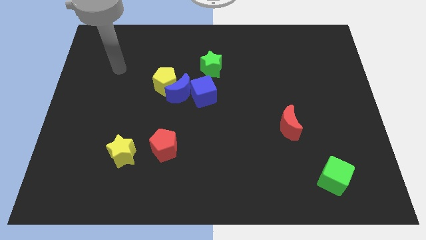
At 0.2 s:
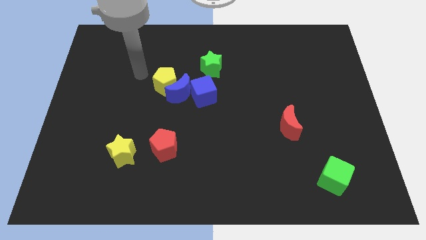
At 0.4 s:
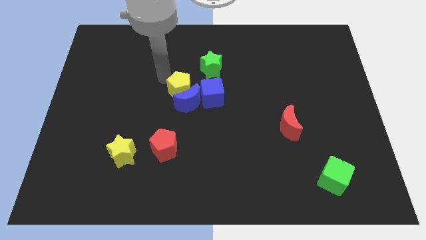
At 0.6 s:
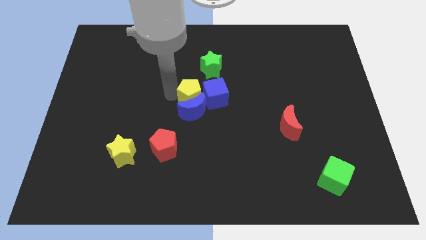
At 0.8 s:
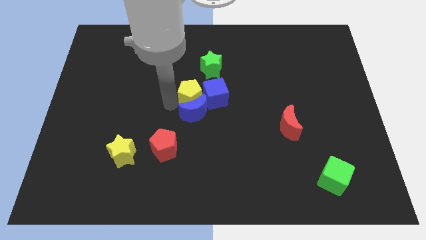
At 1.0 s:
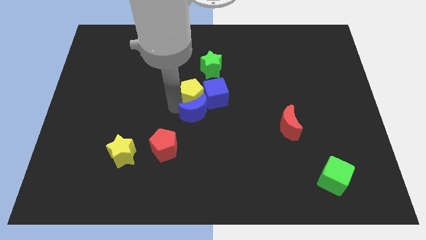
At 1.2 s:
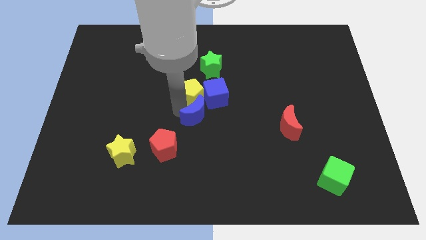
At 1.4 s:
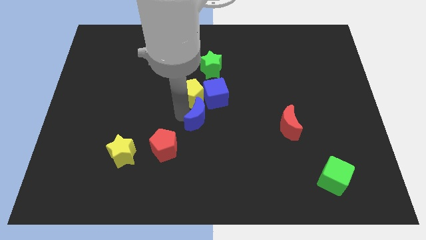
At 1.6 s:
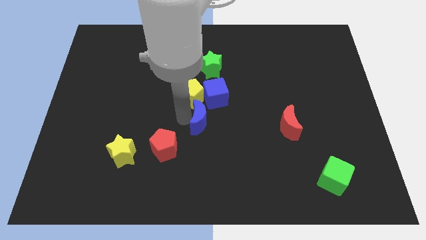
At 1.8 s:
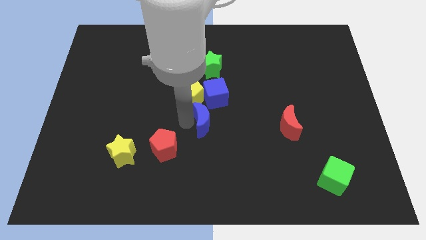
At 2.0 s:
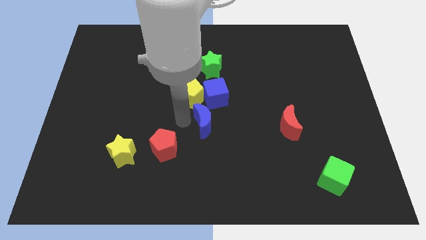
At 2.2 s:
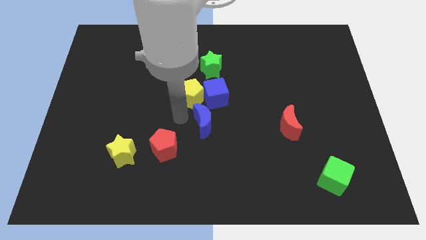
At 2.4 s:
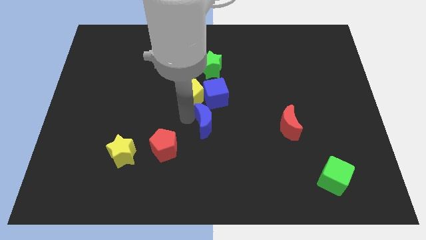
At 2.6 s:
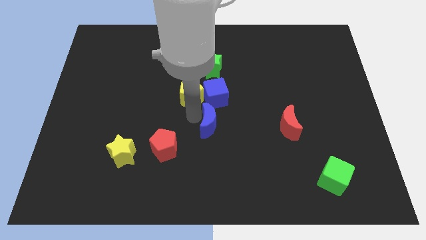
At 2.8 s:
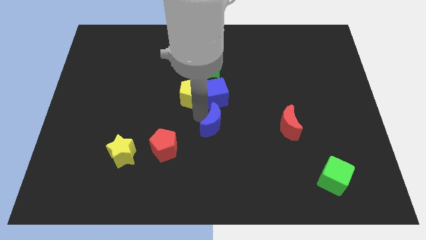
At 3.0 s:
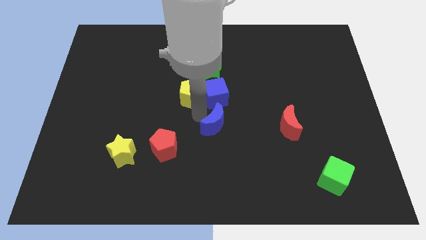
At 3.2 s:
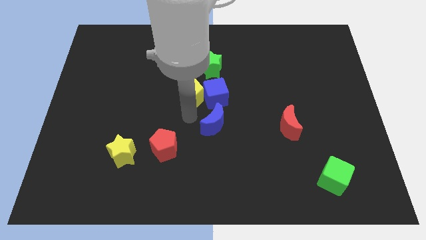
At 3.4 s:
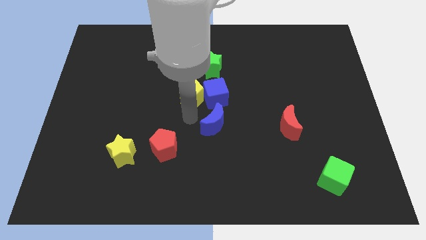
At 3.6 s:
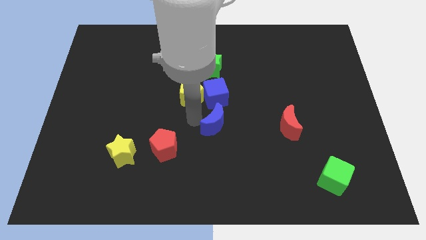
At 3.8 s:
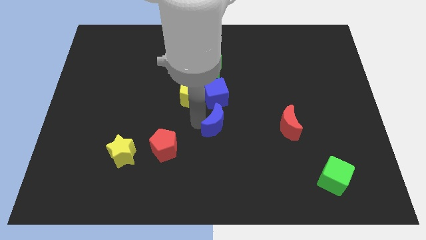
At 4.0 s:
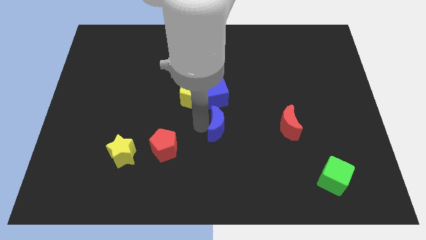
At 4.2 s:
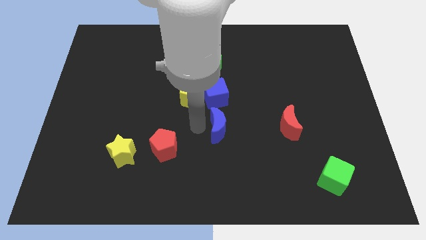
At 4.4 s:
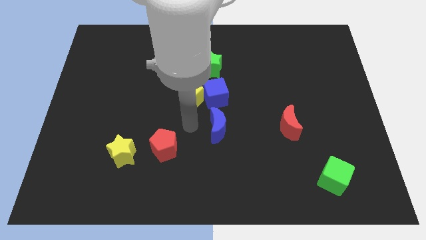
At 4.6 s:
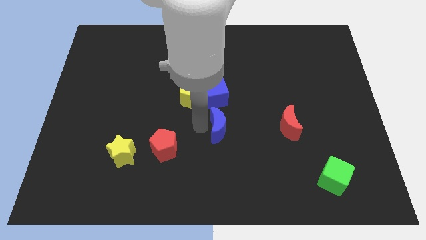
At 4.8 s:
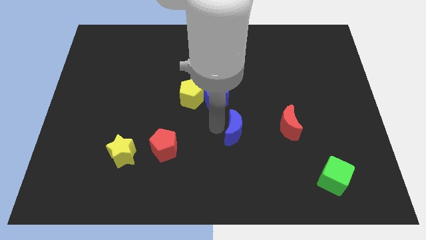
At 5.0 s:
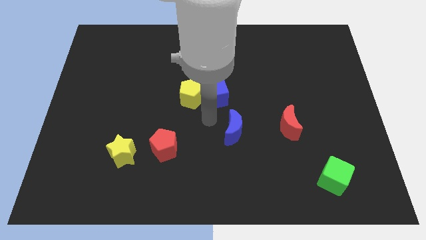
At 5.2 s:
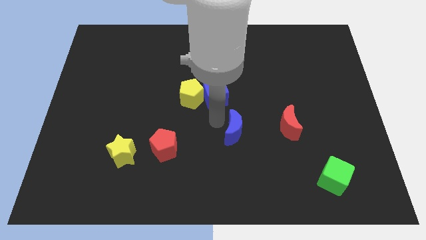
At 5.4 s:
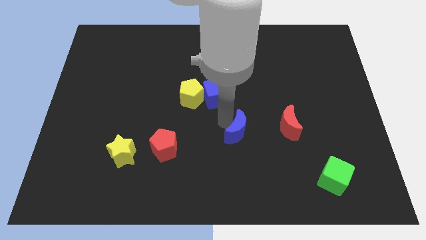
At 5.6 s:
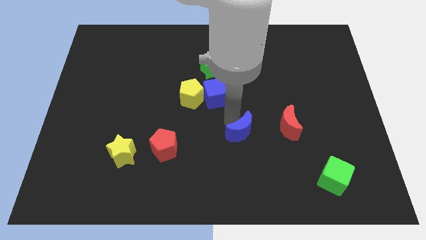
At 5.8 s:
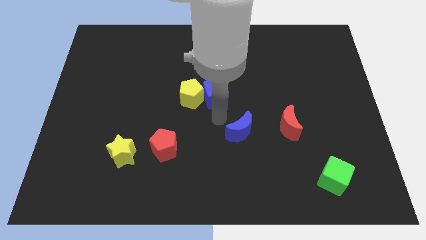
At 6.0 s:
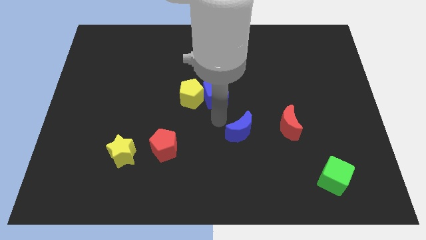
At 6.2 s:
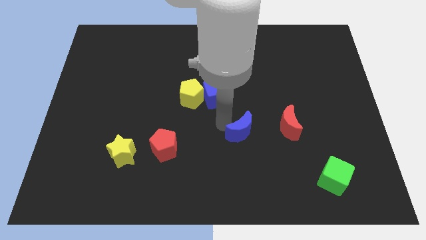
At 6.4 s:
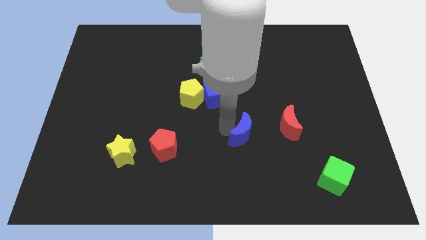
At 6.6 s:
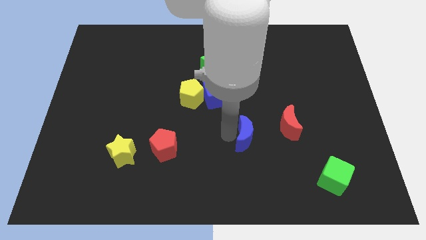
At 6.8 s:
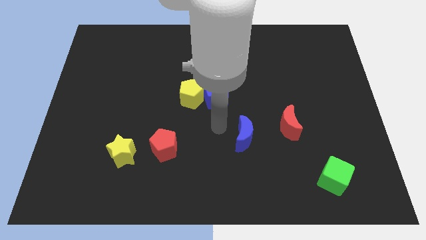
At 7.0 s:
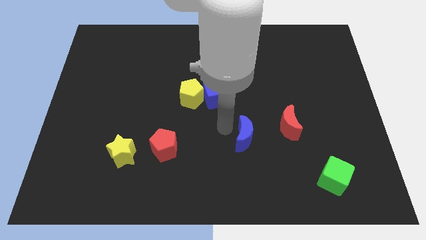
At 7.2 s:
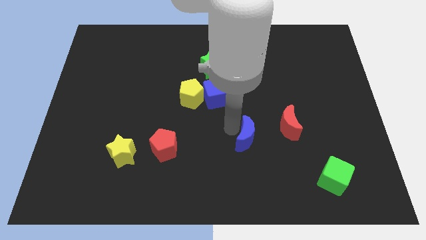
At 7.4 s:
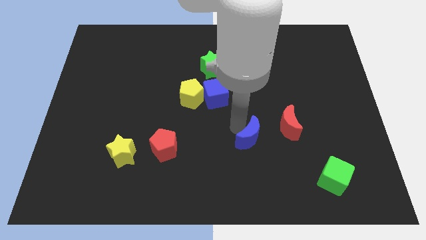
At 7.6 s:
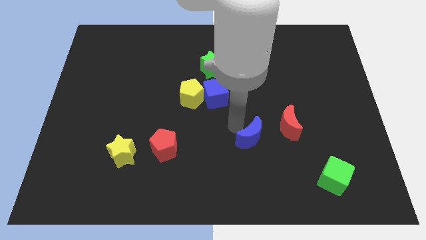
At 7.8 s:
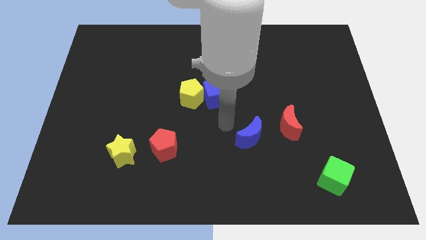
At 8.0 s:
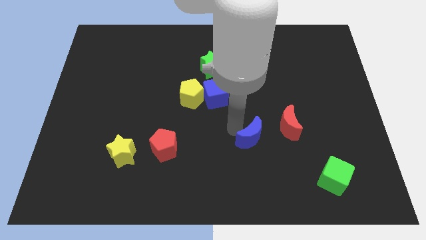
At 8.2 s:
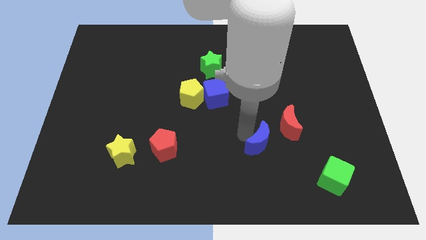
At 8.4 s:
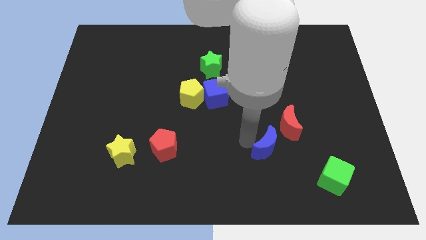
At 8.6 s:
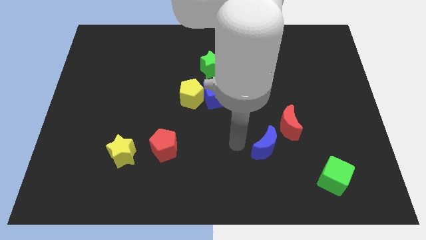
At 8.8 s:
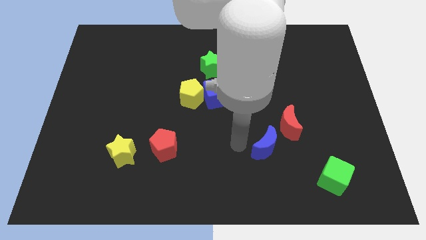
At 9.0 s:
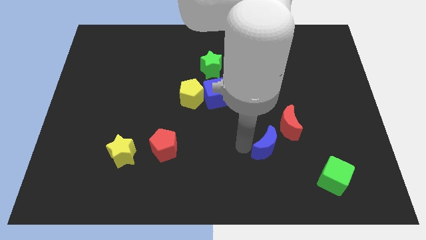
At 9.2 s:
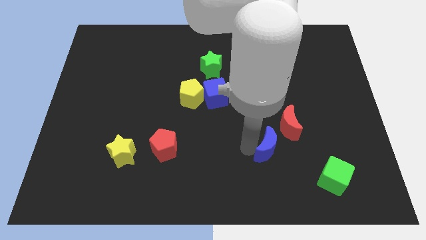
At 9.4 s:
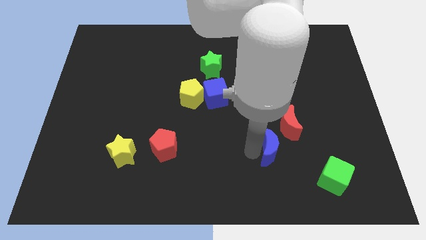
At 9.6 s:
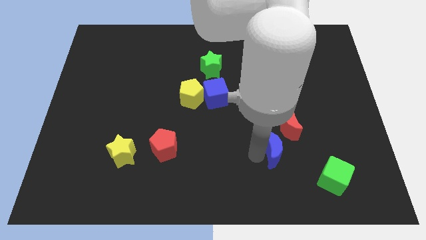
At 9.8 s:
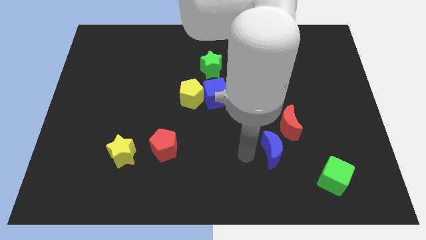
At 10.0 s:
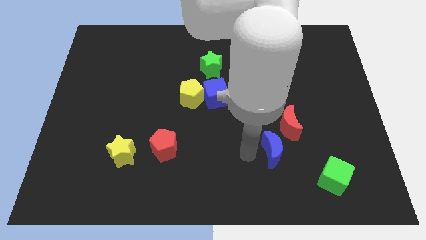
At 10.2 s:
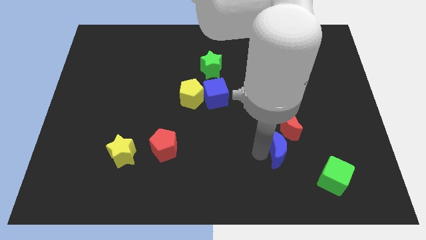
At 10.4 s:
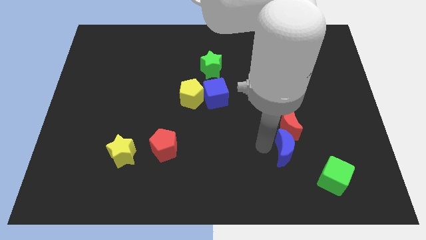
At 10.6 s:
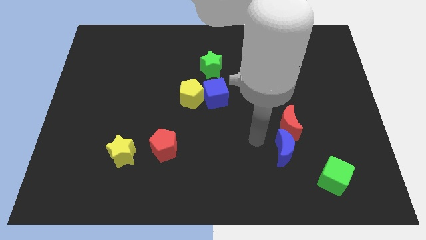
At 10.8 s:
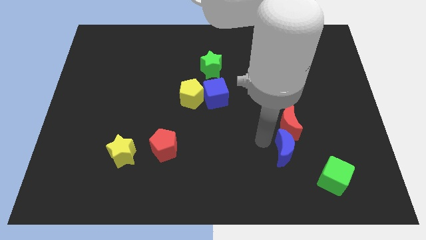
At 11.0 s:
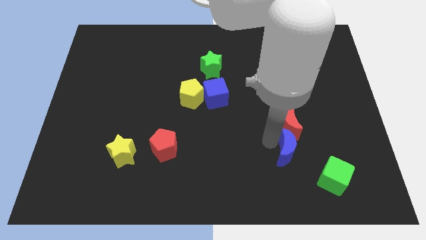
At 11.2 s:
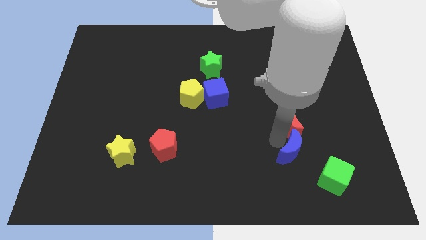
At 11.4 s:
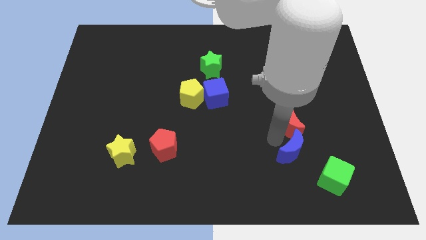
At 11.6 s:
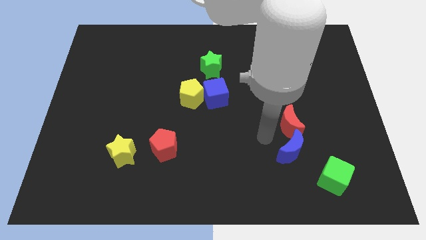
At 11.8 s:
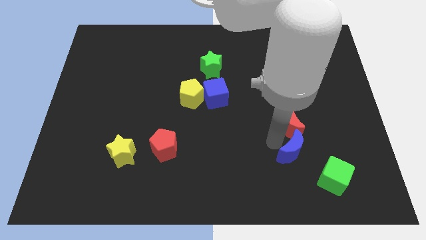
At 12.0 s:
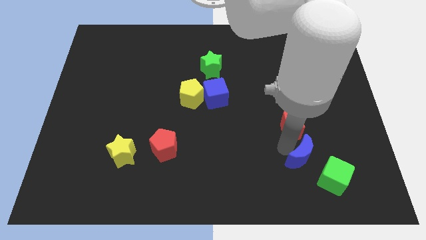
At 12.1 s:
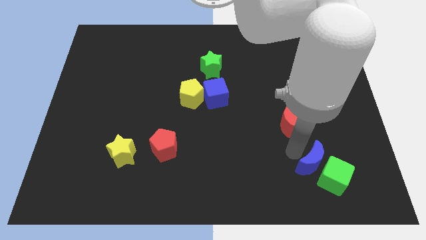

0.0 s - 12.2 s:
move the blue moon towards the green cube

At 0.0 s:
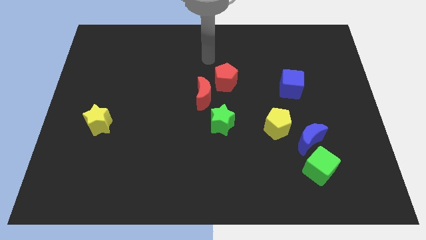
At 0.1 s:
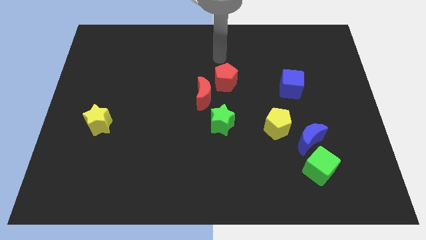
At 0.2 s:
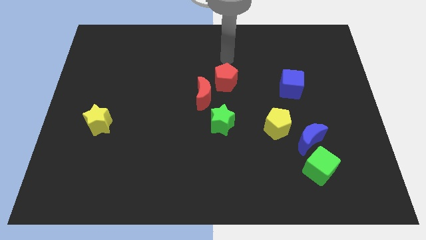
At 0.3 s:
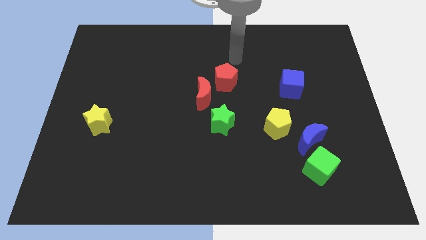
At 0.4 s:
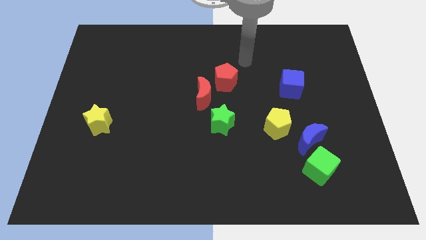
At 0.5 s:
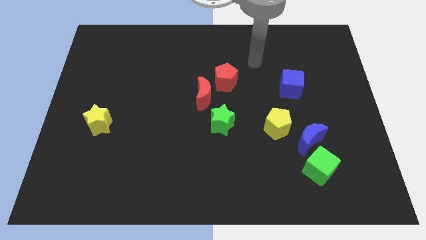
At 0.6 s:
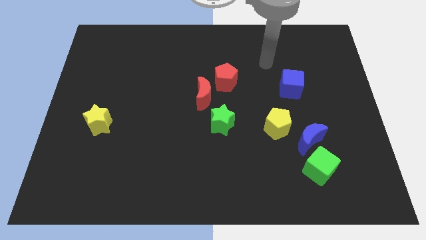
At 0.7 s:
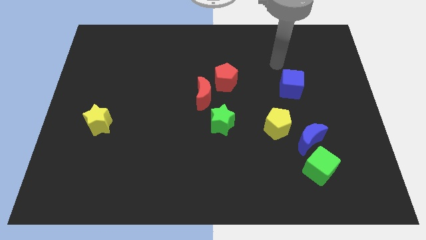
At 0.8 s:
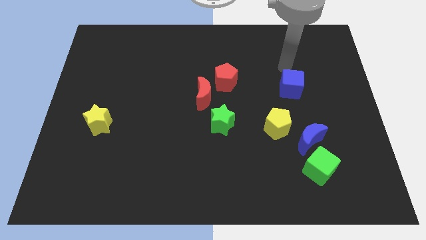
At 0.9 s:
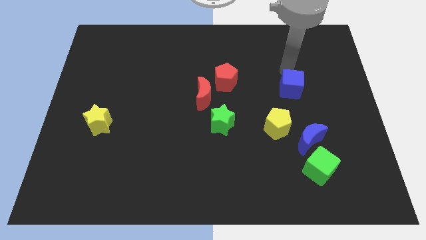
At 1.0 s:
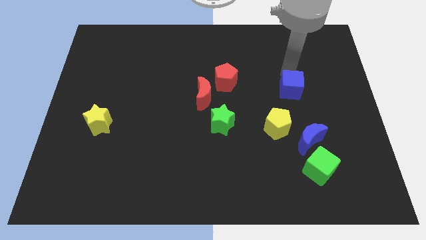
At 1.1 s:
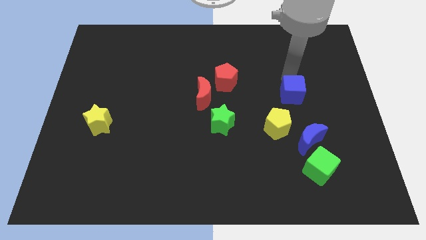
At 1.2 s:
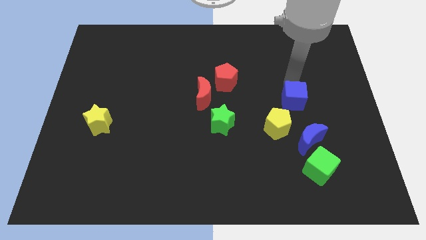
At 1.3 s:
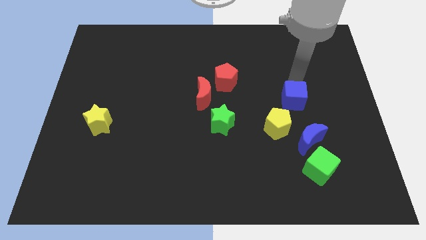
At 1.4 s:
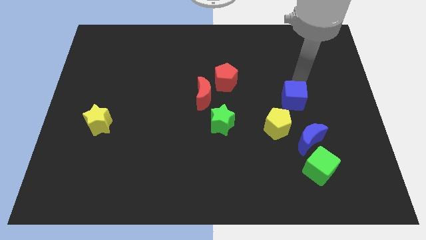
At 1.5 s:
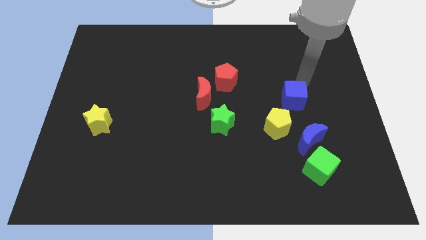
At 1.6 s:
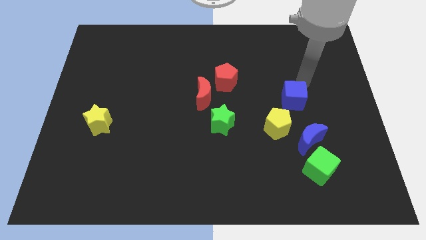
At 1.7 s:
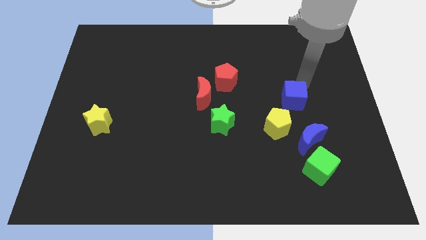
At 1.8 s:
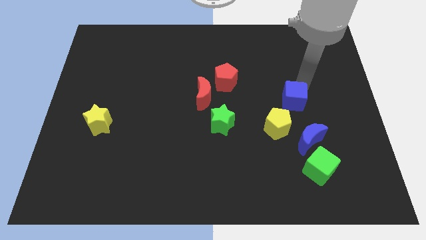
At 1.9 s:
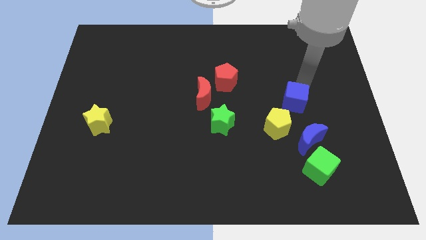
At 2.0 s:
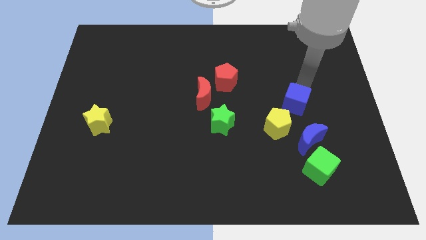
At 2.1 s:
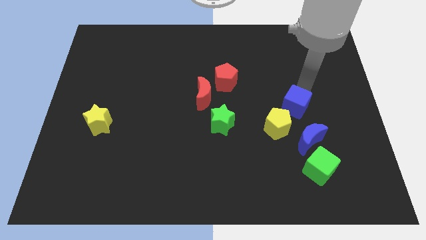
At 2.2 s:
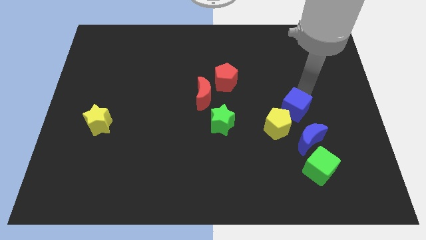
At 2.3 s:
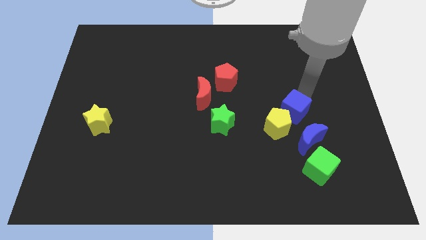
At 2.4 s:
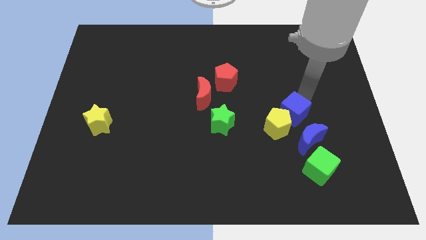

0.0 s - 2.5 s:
put the blue cube to the yellow pentagon

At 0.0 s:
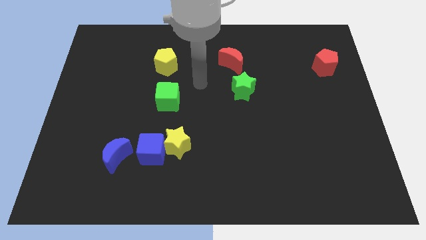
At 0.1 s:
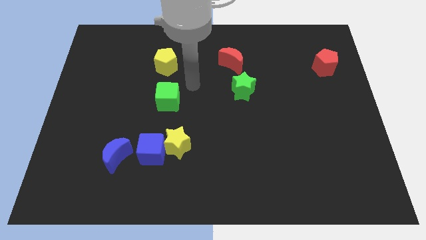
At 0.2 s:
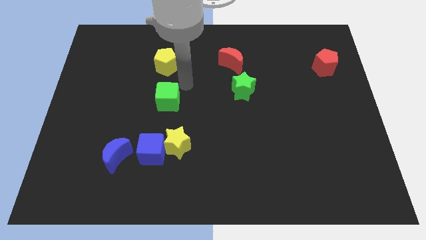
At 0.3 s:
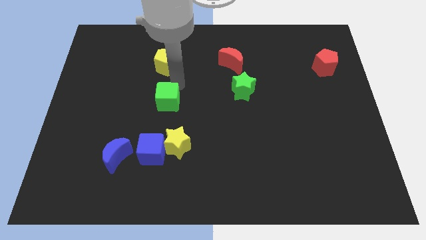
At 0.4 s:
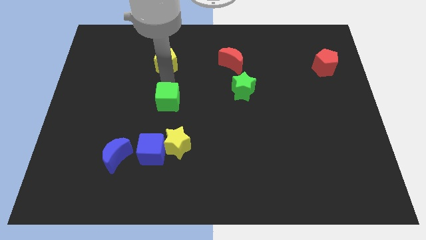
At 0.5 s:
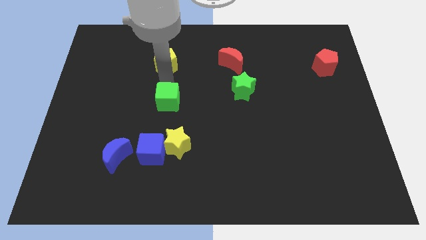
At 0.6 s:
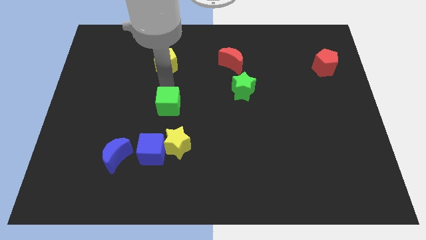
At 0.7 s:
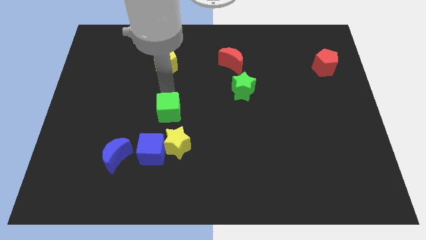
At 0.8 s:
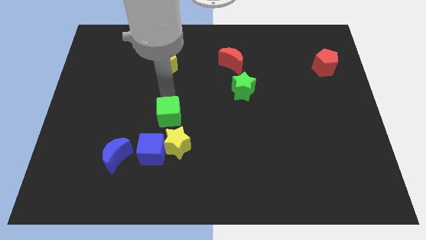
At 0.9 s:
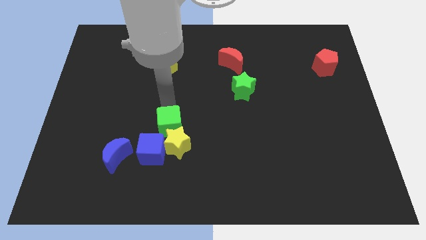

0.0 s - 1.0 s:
push the green cube close to the yellow star
